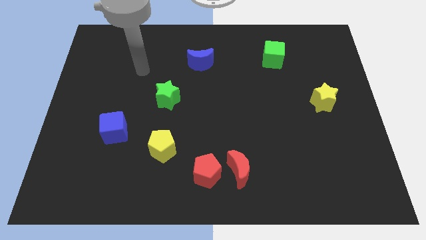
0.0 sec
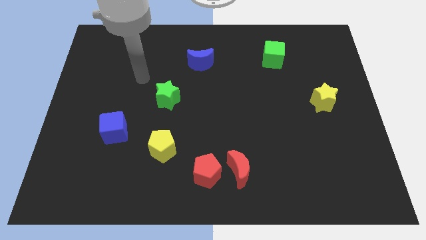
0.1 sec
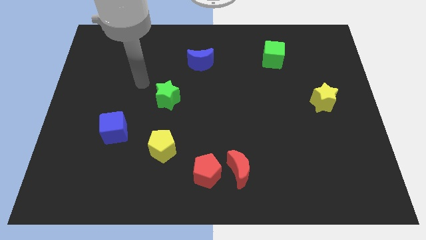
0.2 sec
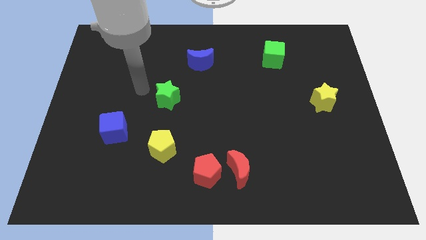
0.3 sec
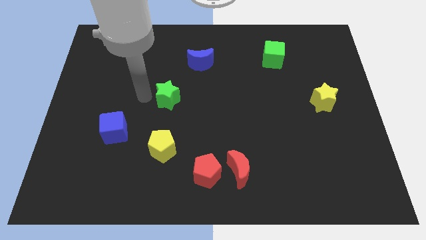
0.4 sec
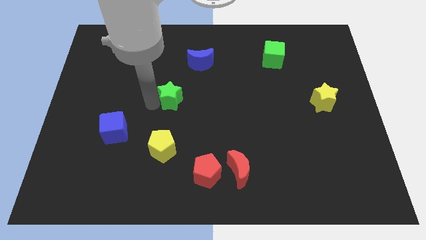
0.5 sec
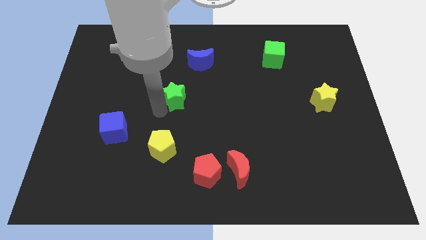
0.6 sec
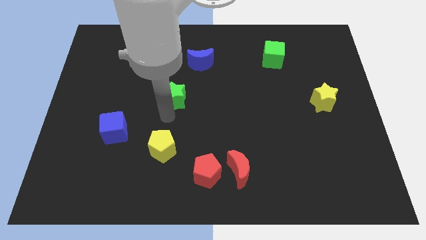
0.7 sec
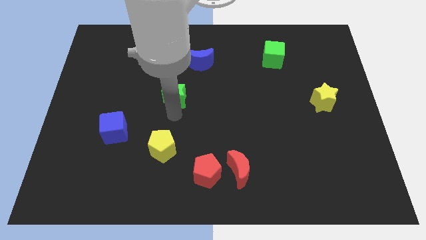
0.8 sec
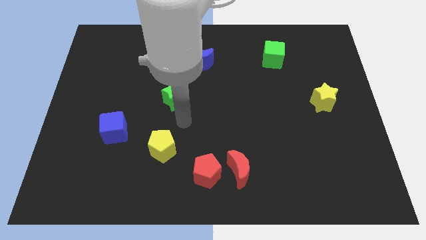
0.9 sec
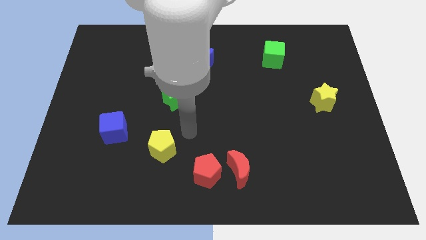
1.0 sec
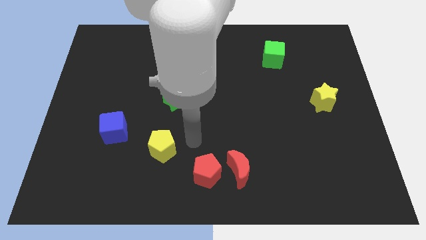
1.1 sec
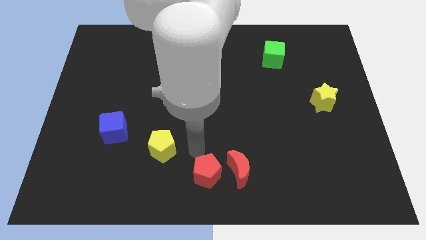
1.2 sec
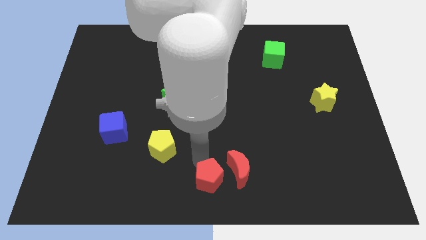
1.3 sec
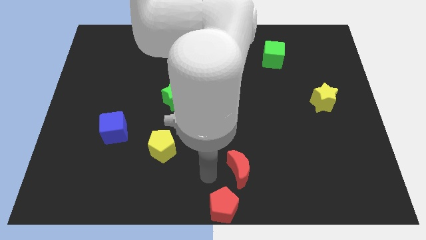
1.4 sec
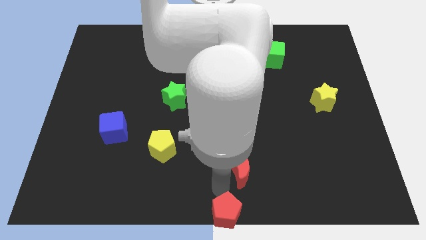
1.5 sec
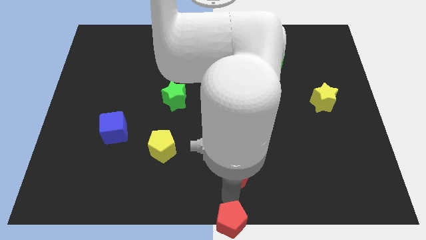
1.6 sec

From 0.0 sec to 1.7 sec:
move the red moon away from the red pentagon

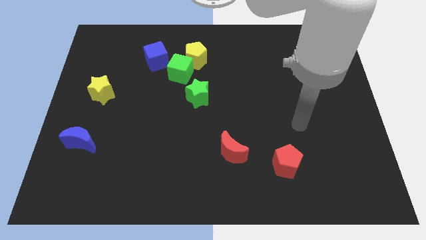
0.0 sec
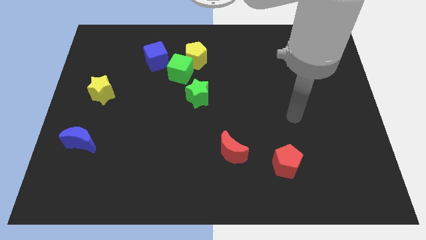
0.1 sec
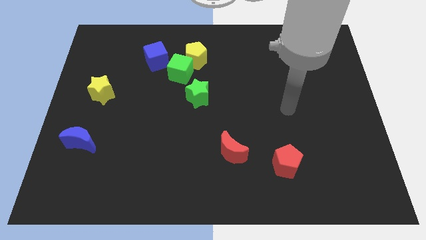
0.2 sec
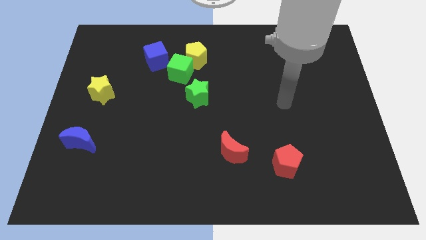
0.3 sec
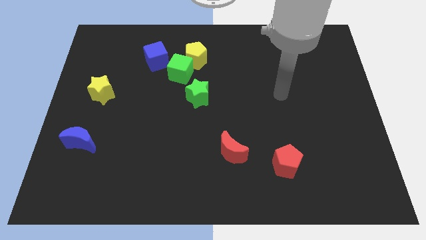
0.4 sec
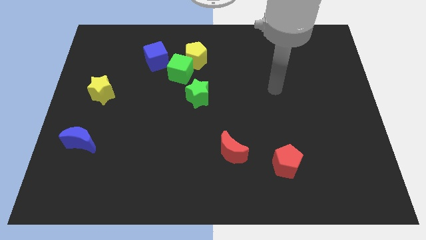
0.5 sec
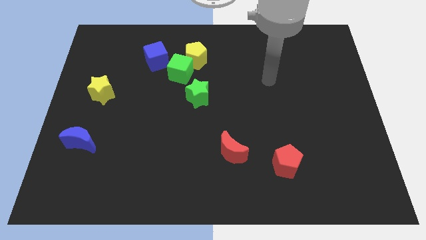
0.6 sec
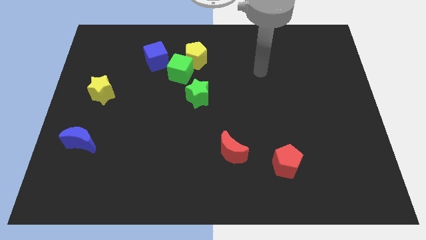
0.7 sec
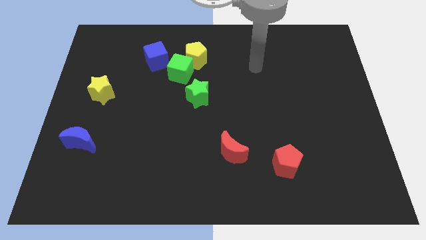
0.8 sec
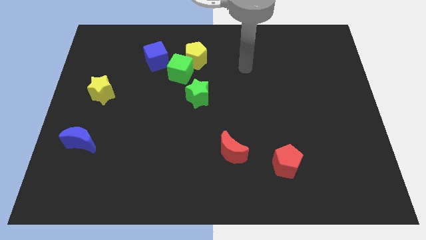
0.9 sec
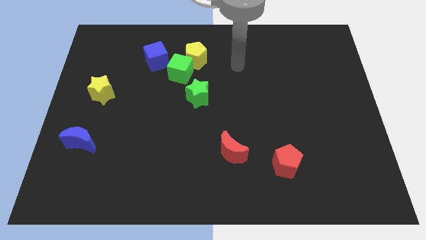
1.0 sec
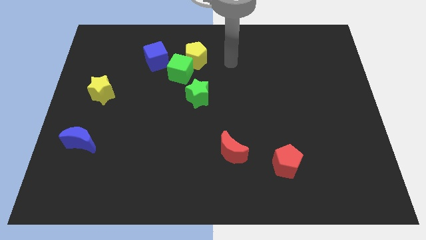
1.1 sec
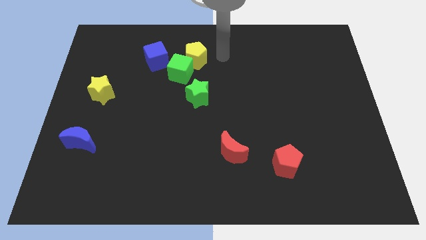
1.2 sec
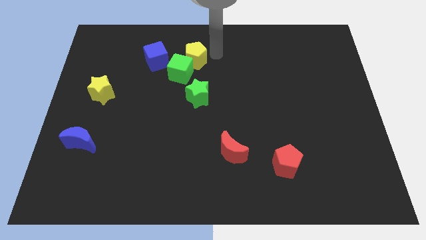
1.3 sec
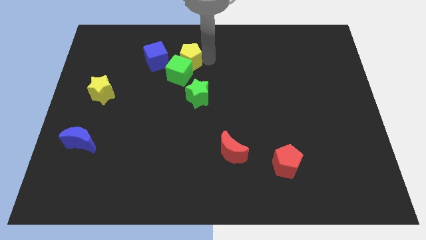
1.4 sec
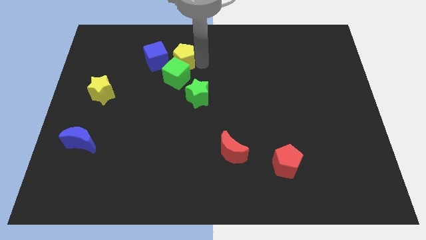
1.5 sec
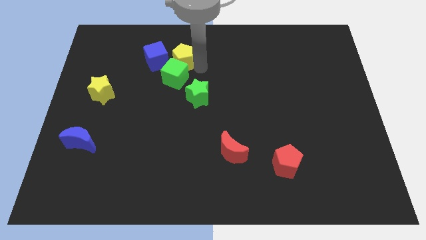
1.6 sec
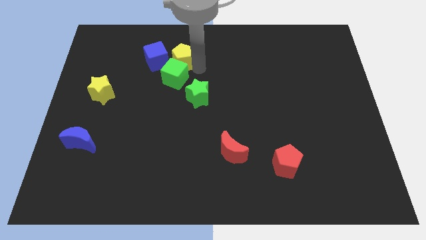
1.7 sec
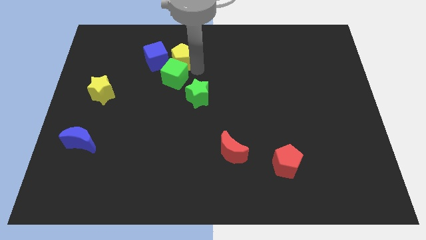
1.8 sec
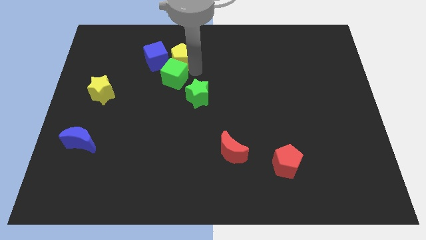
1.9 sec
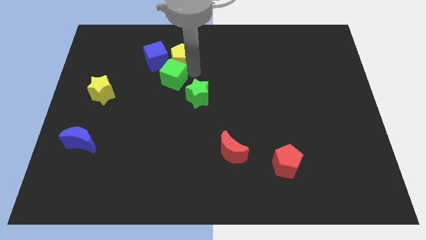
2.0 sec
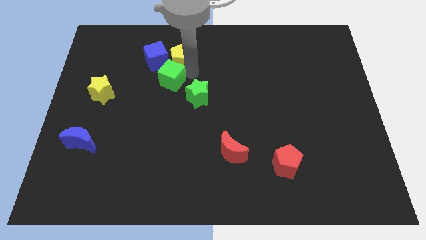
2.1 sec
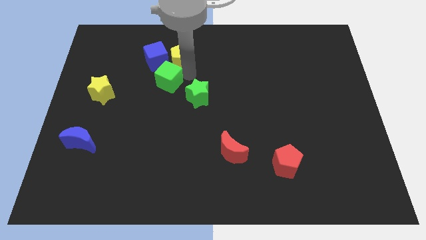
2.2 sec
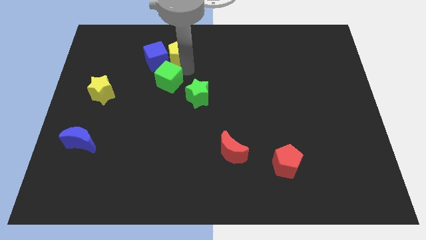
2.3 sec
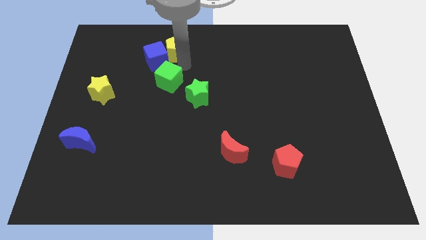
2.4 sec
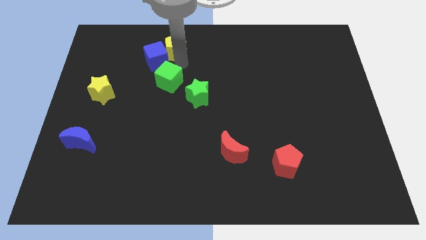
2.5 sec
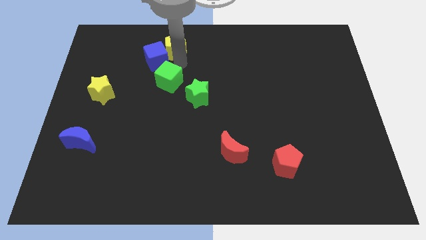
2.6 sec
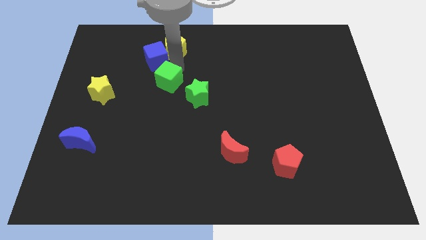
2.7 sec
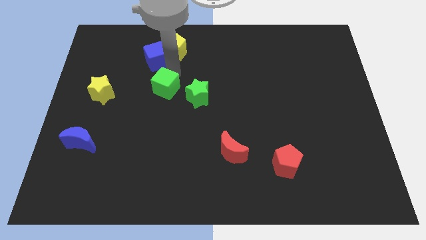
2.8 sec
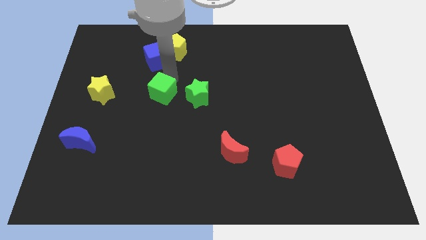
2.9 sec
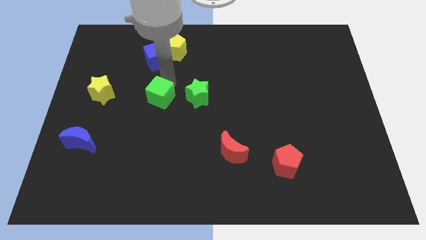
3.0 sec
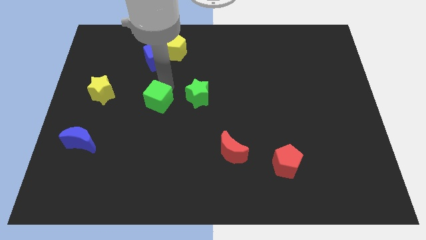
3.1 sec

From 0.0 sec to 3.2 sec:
separate the green cube from the clump

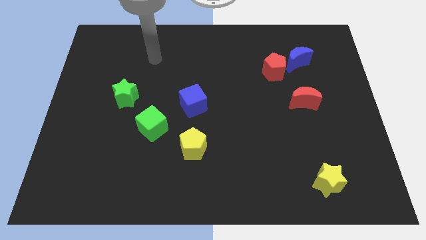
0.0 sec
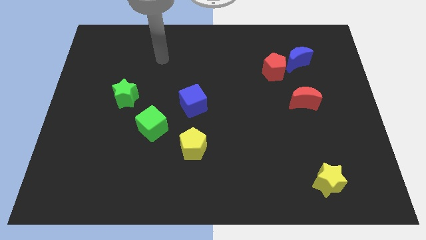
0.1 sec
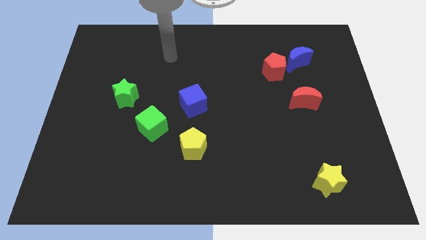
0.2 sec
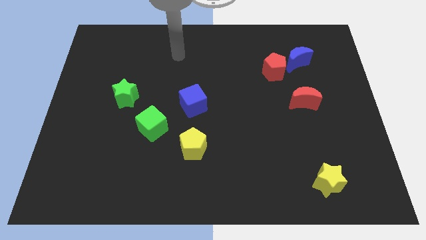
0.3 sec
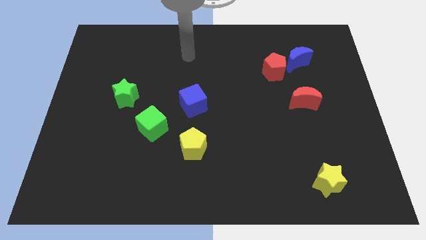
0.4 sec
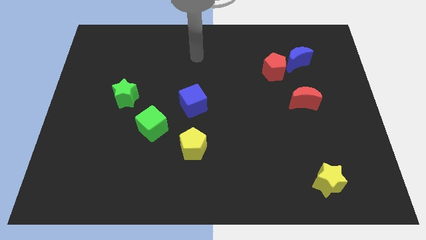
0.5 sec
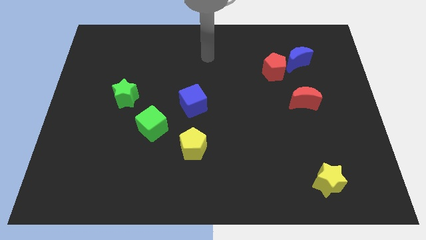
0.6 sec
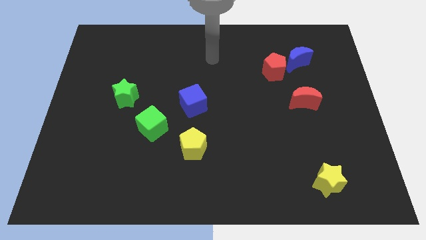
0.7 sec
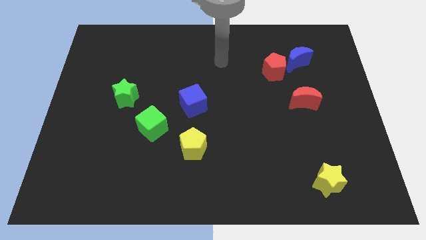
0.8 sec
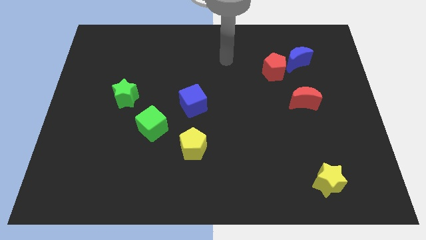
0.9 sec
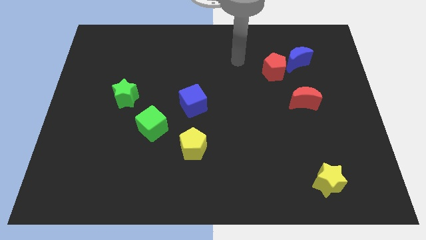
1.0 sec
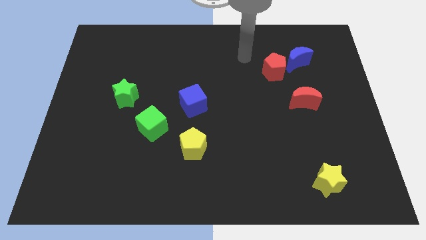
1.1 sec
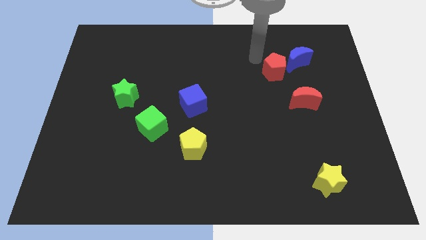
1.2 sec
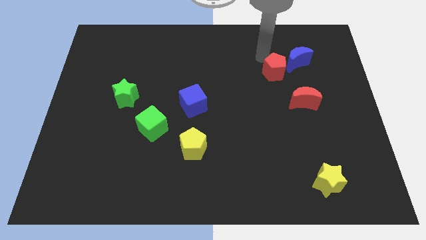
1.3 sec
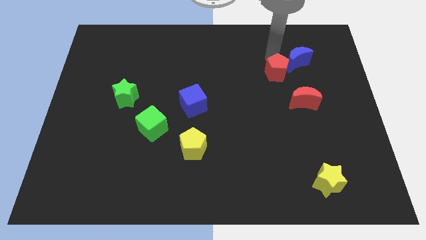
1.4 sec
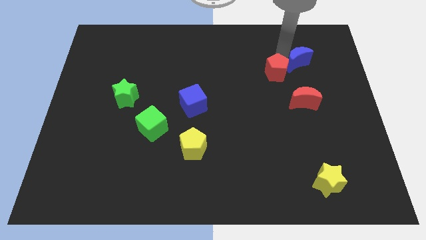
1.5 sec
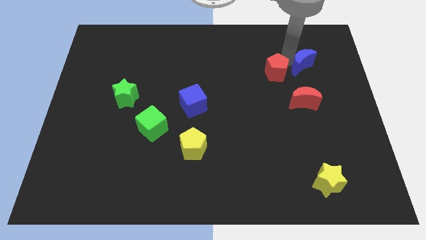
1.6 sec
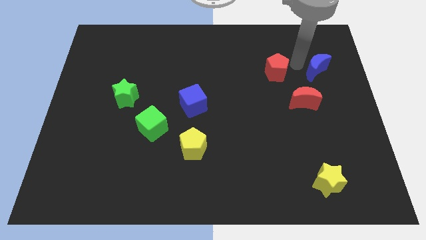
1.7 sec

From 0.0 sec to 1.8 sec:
separate the red pentagon from the blue moon

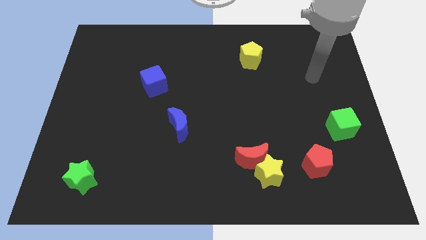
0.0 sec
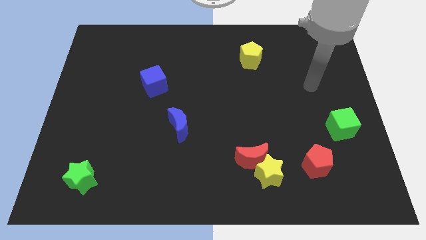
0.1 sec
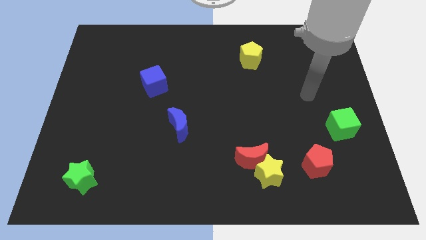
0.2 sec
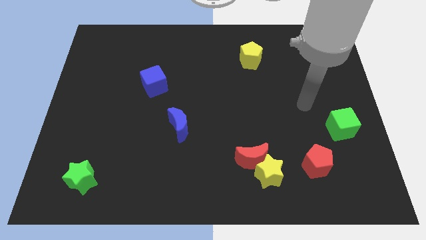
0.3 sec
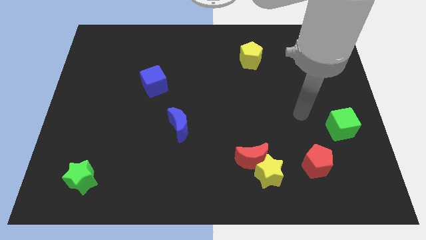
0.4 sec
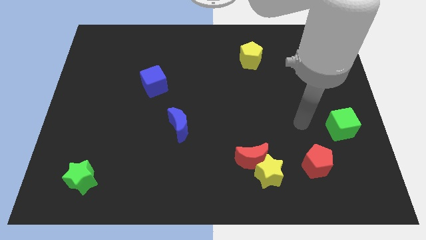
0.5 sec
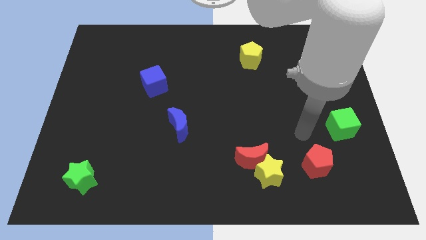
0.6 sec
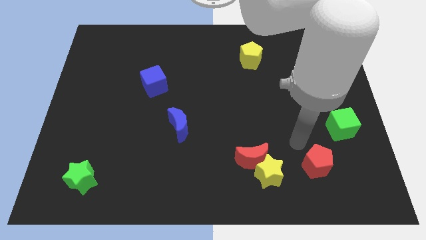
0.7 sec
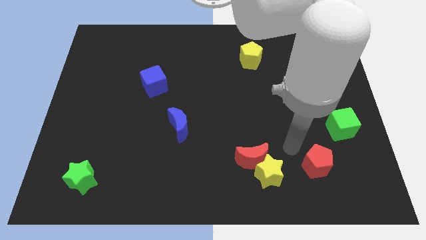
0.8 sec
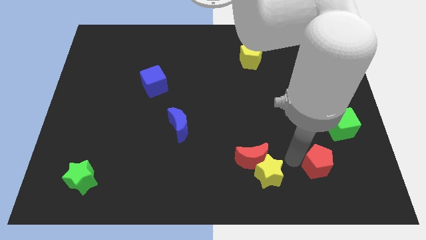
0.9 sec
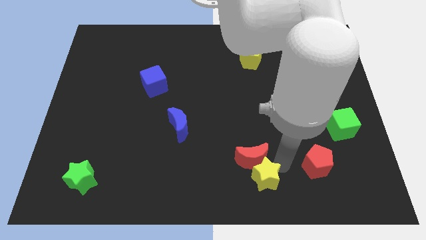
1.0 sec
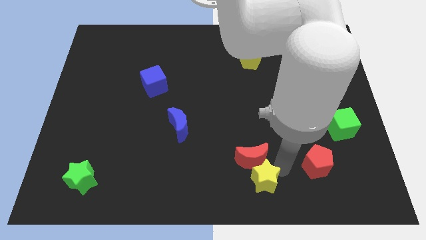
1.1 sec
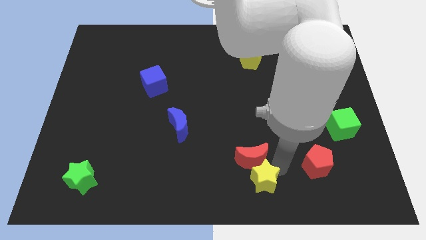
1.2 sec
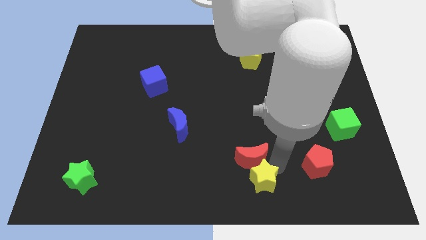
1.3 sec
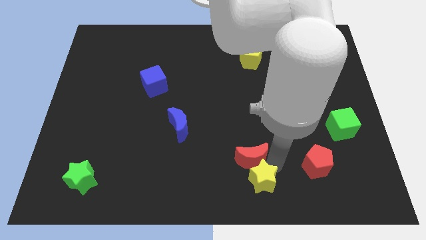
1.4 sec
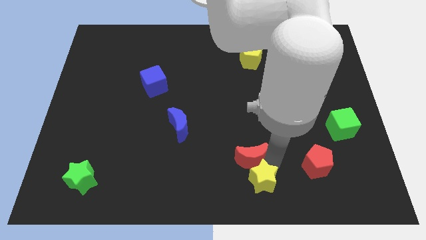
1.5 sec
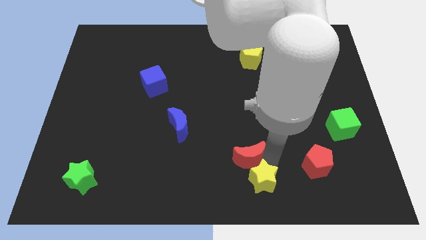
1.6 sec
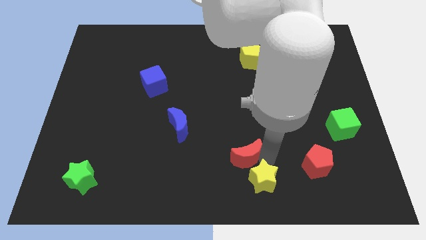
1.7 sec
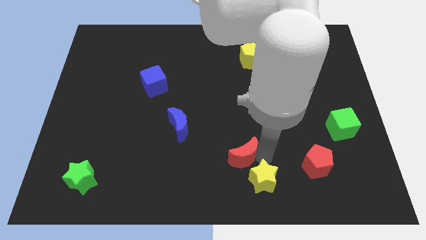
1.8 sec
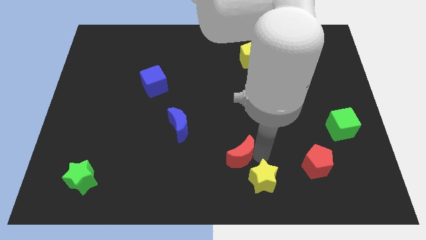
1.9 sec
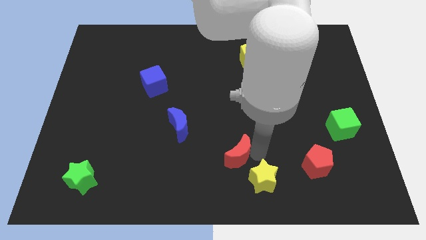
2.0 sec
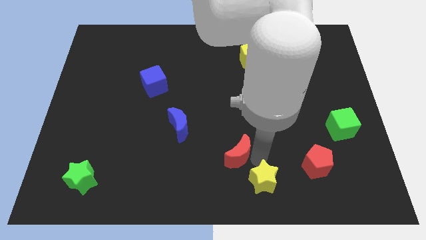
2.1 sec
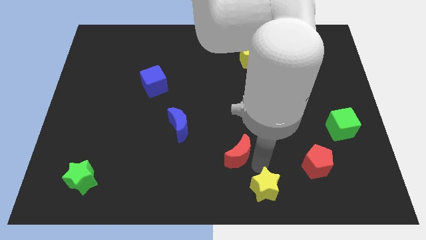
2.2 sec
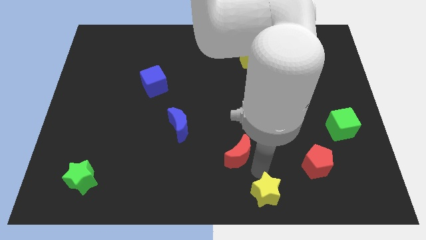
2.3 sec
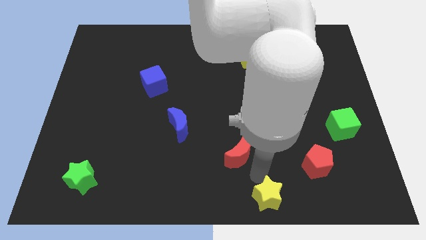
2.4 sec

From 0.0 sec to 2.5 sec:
separate the red moon from the yellow star

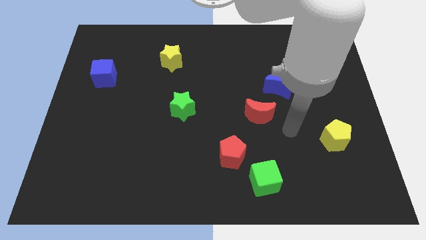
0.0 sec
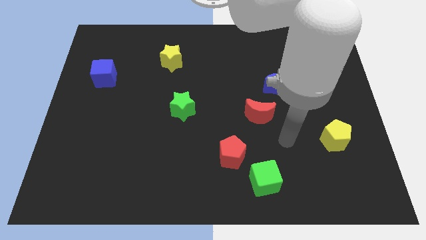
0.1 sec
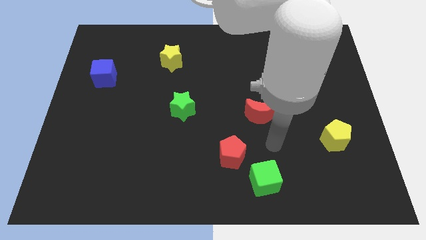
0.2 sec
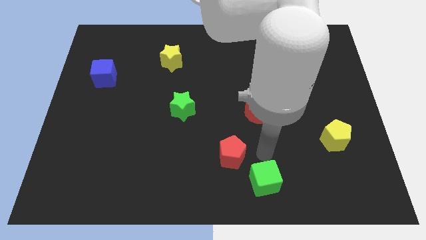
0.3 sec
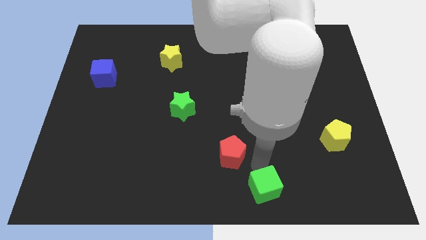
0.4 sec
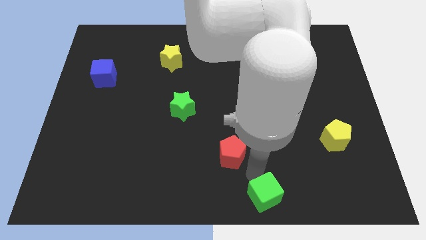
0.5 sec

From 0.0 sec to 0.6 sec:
move the red pentagon away from the green cube
